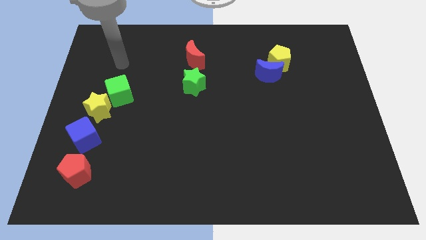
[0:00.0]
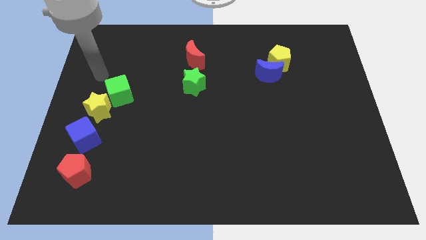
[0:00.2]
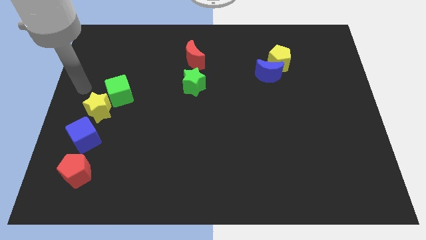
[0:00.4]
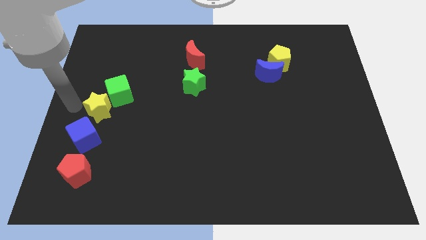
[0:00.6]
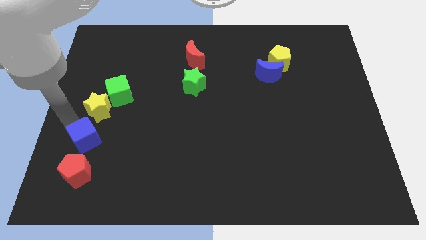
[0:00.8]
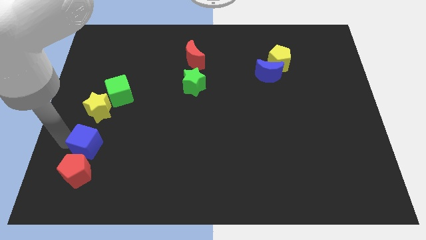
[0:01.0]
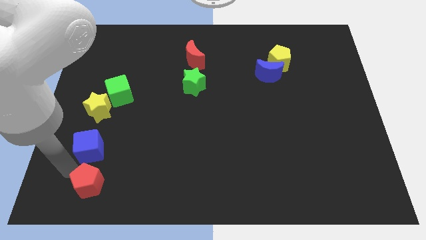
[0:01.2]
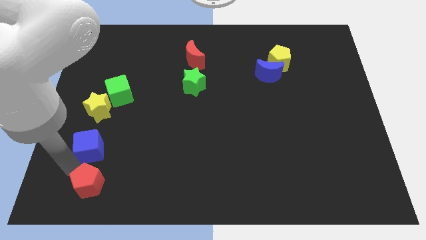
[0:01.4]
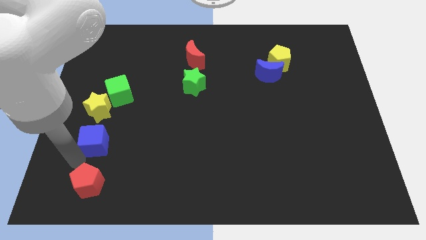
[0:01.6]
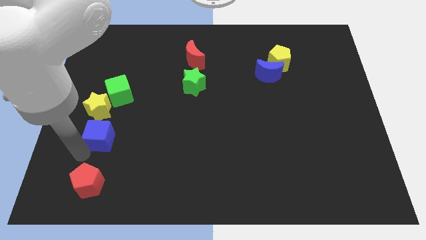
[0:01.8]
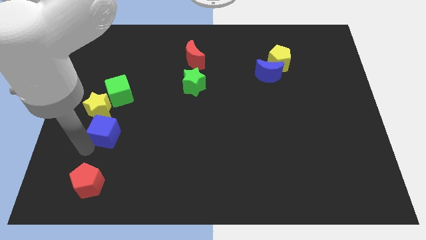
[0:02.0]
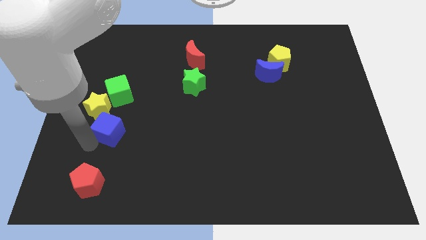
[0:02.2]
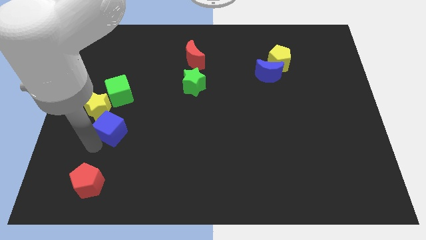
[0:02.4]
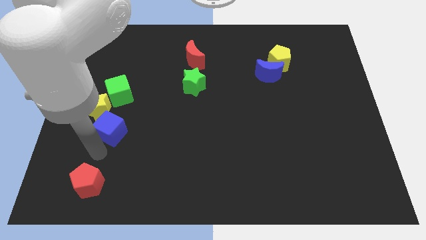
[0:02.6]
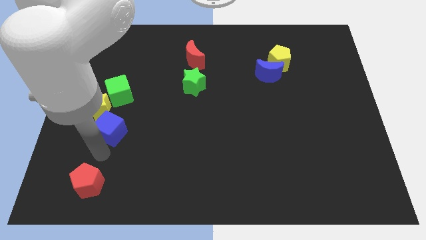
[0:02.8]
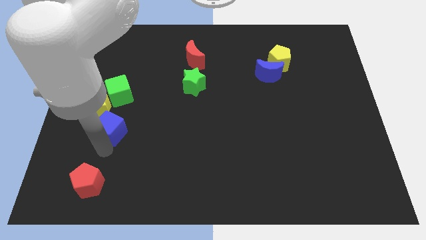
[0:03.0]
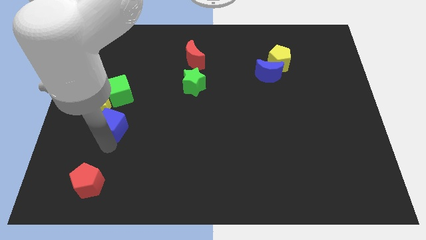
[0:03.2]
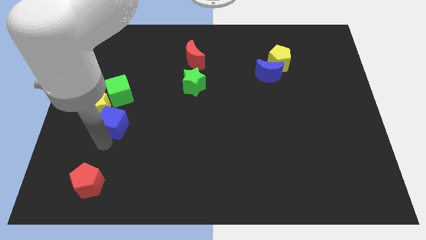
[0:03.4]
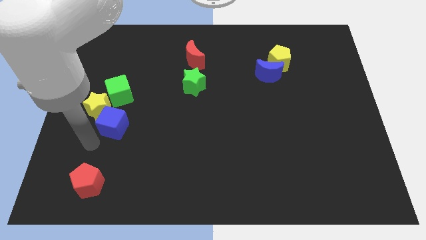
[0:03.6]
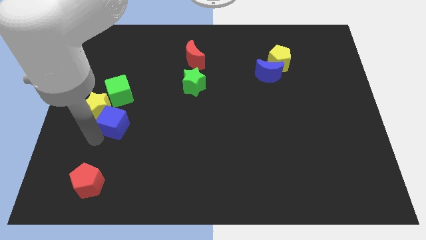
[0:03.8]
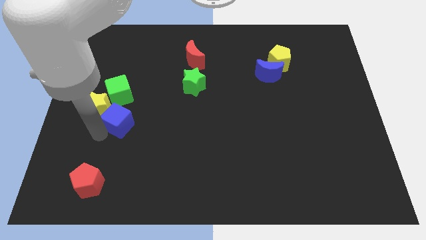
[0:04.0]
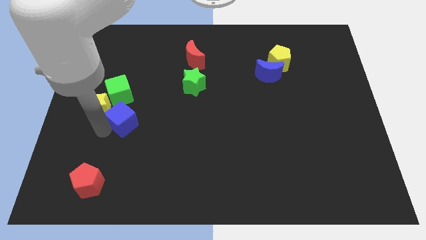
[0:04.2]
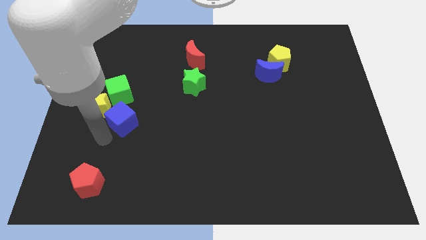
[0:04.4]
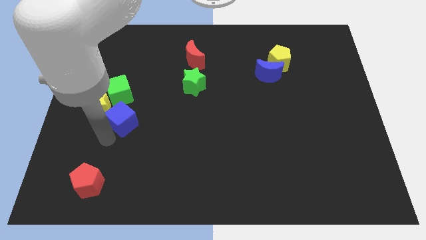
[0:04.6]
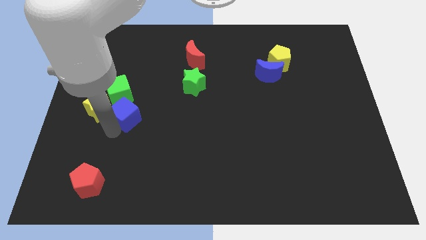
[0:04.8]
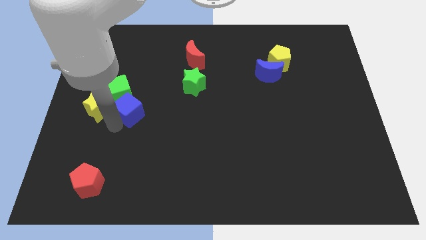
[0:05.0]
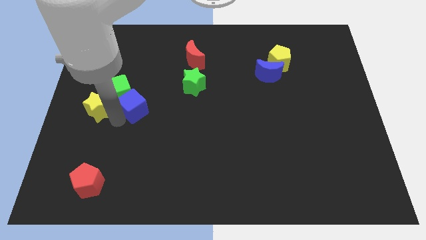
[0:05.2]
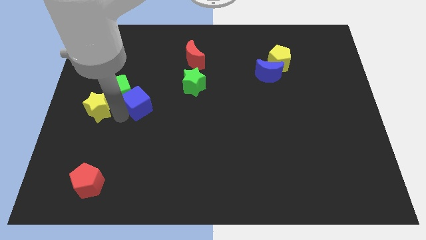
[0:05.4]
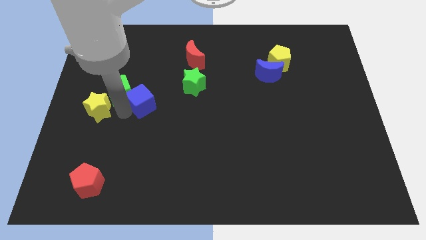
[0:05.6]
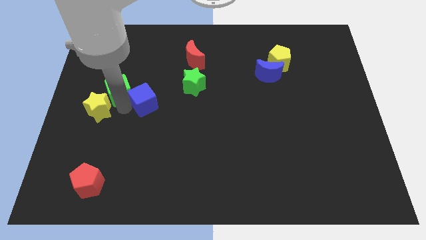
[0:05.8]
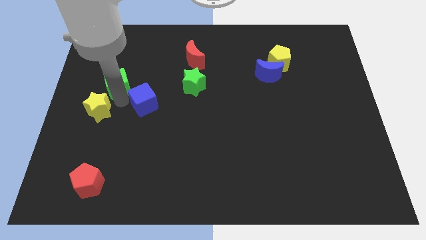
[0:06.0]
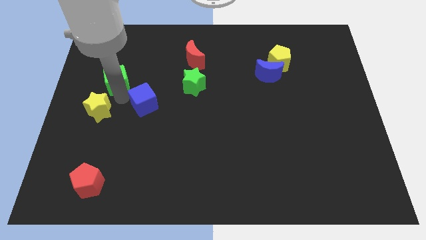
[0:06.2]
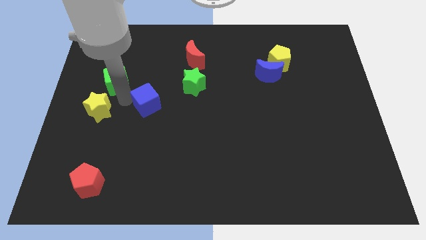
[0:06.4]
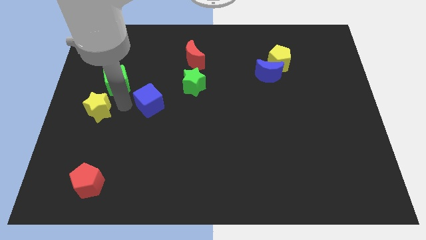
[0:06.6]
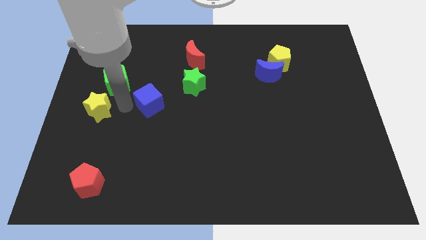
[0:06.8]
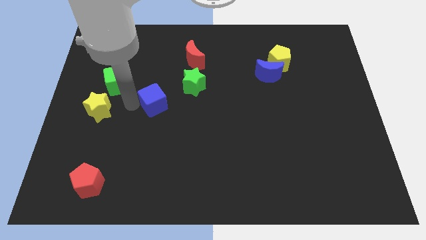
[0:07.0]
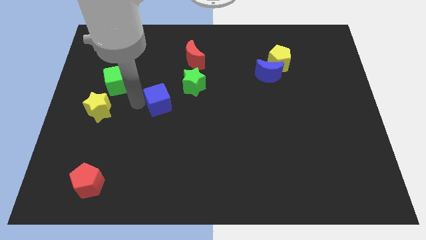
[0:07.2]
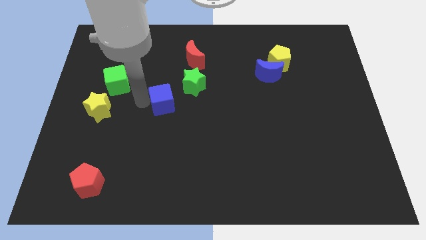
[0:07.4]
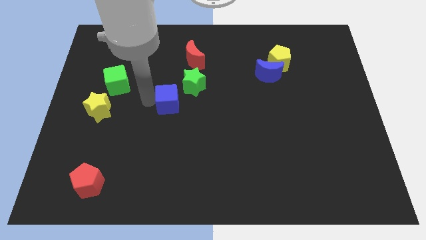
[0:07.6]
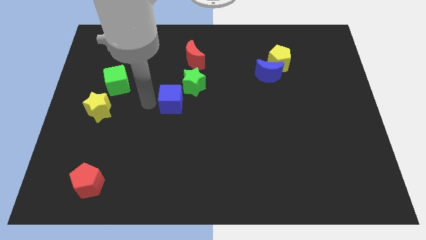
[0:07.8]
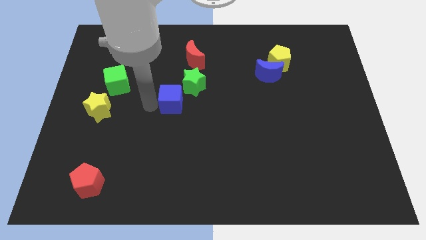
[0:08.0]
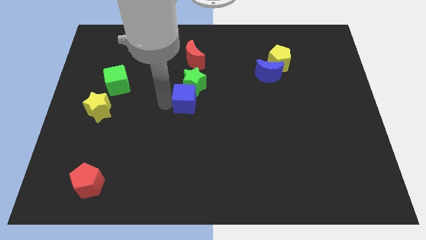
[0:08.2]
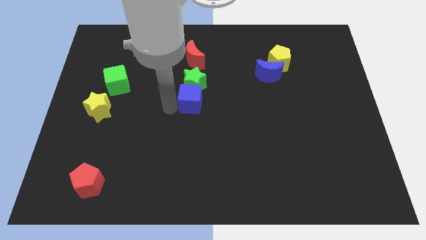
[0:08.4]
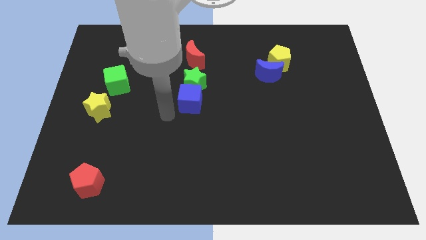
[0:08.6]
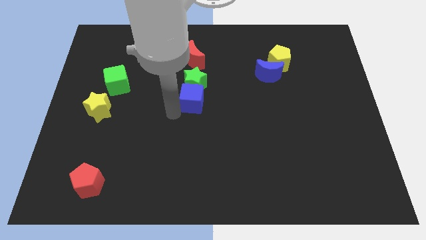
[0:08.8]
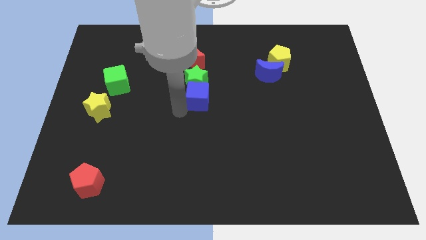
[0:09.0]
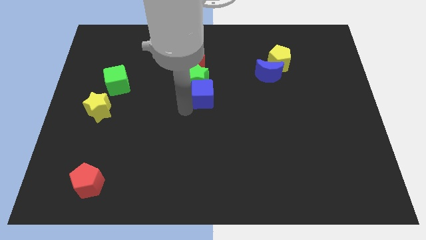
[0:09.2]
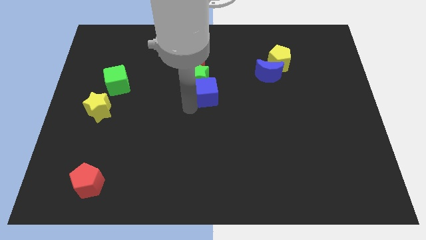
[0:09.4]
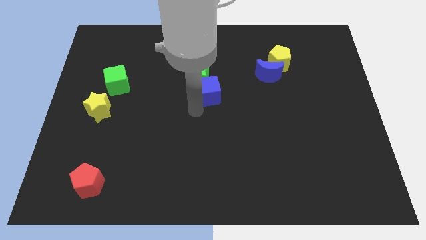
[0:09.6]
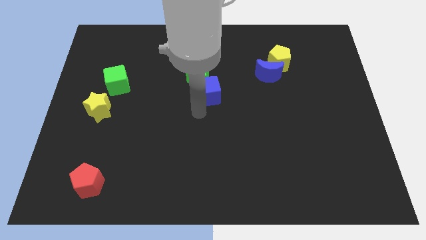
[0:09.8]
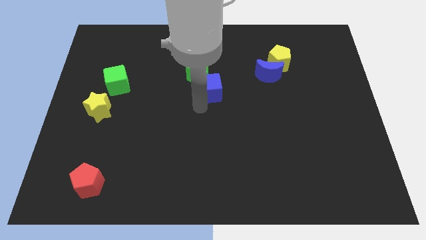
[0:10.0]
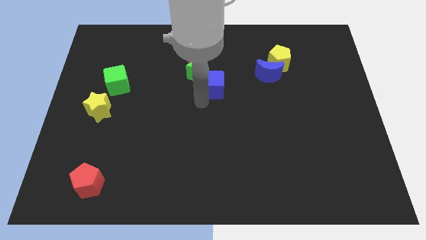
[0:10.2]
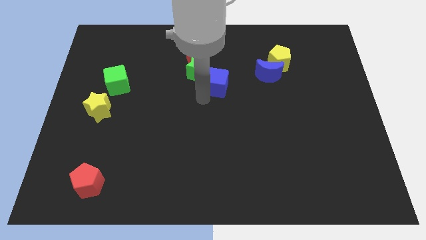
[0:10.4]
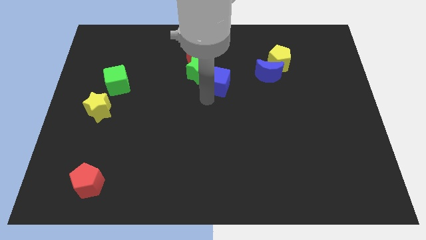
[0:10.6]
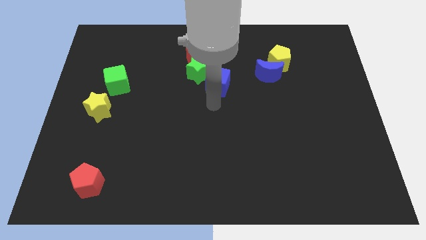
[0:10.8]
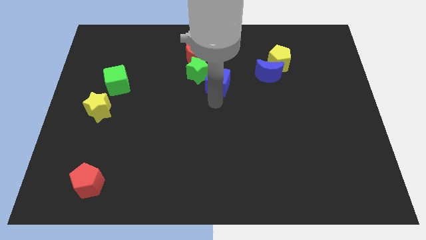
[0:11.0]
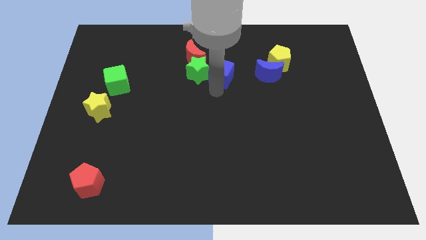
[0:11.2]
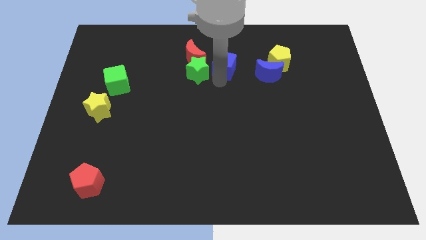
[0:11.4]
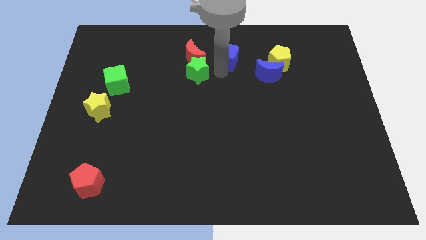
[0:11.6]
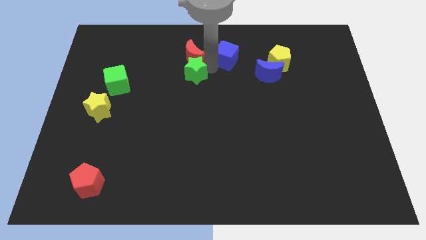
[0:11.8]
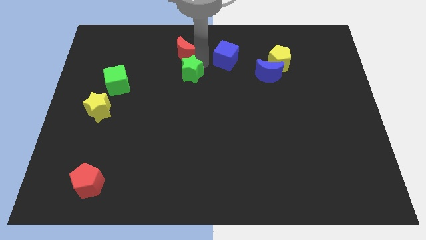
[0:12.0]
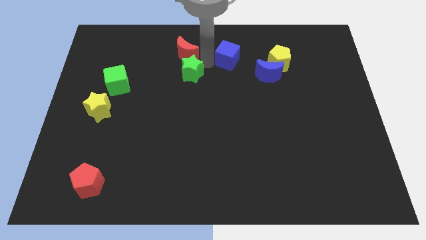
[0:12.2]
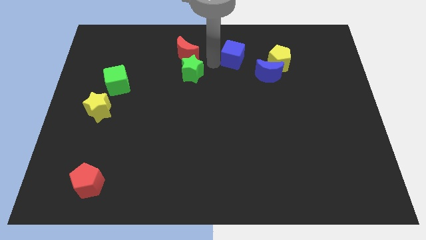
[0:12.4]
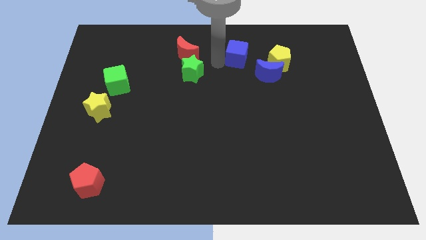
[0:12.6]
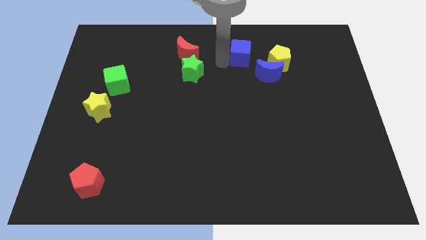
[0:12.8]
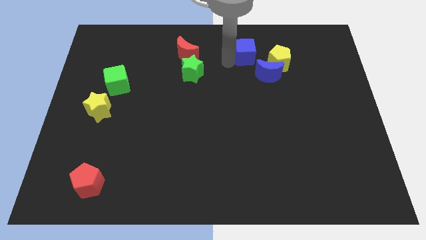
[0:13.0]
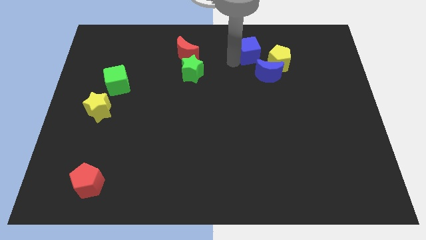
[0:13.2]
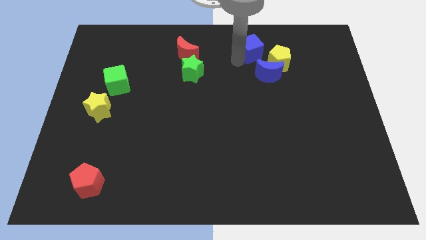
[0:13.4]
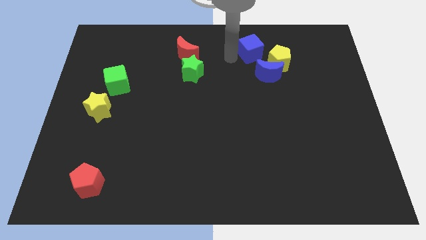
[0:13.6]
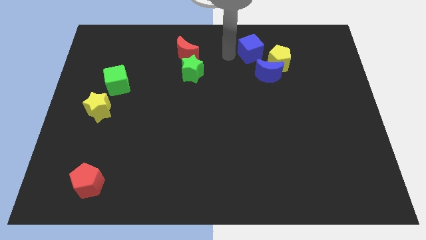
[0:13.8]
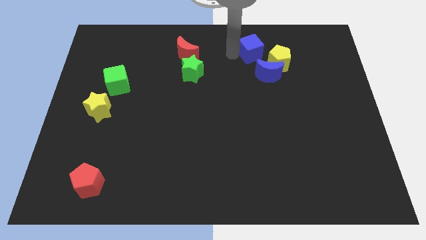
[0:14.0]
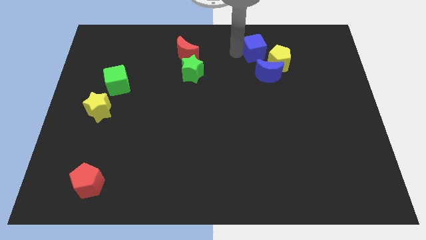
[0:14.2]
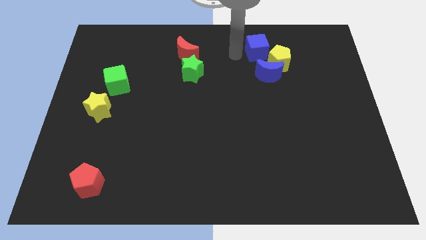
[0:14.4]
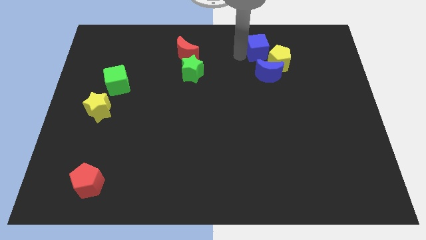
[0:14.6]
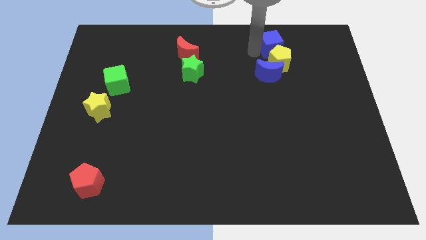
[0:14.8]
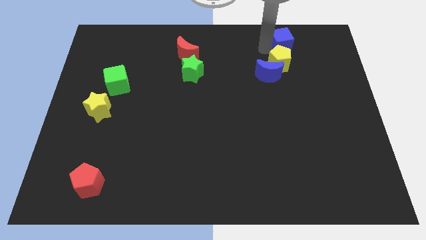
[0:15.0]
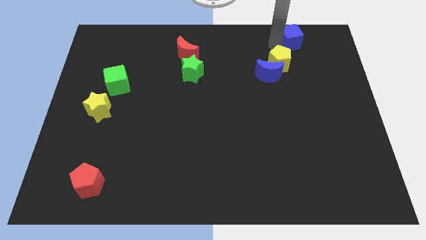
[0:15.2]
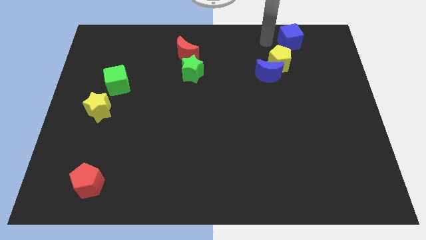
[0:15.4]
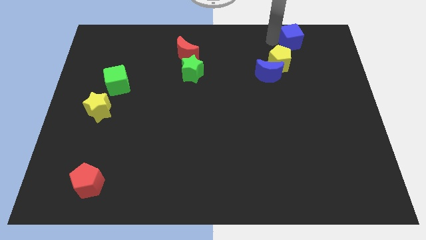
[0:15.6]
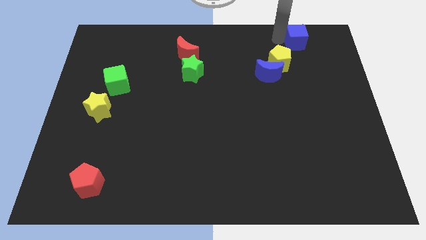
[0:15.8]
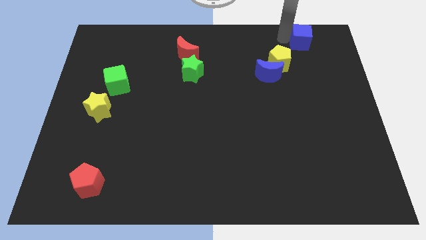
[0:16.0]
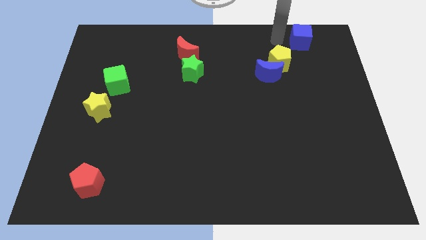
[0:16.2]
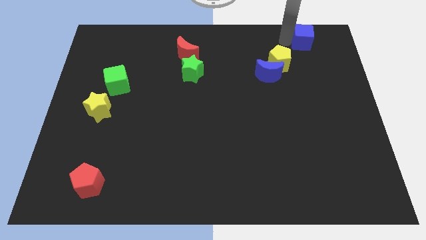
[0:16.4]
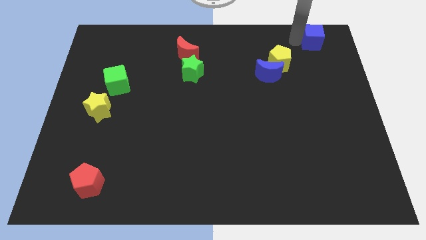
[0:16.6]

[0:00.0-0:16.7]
put the blue cube to the top right corner
